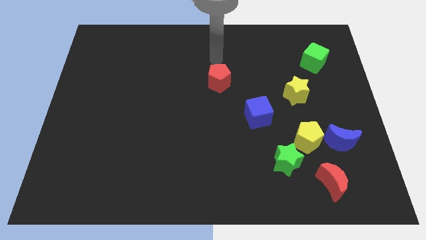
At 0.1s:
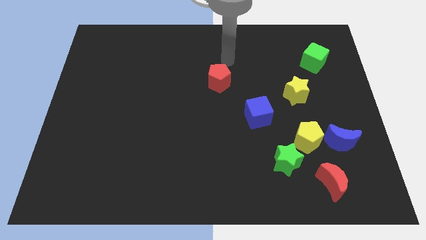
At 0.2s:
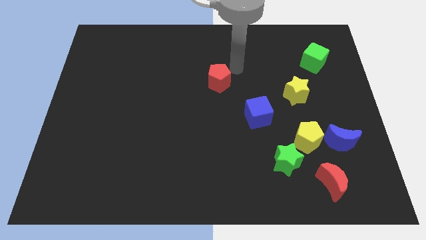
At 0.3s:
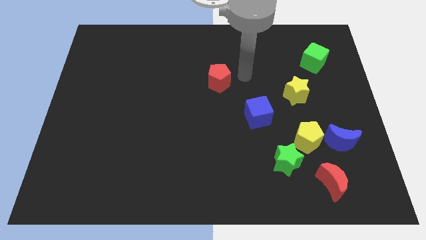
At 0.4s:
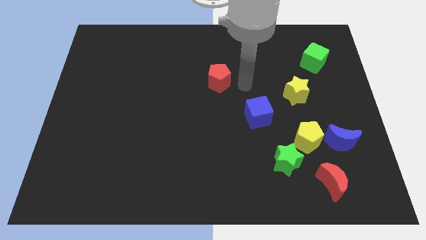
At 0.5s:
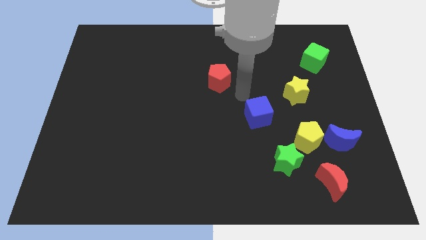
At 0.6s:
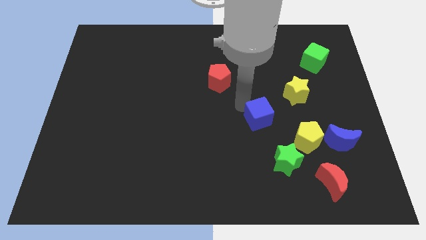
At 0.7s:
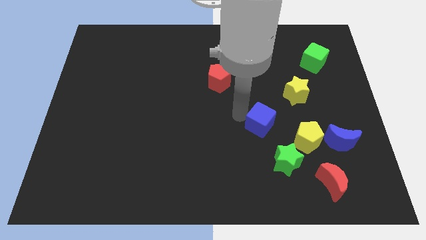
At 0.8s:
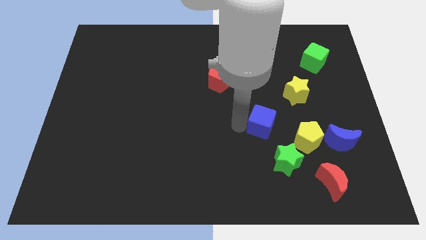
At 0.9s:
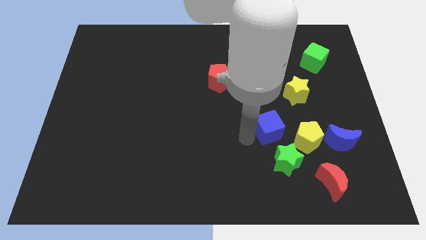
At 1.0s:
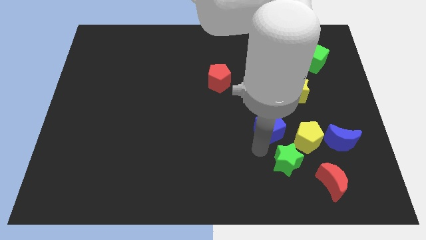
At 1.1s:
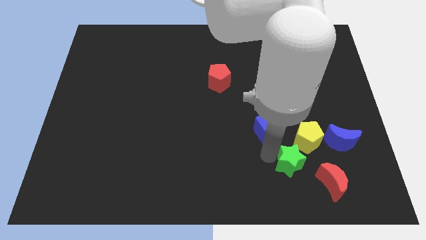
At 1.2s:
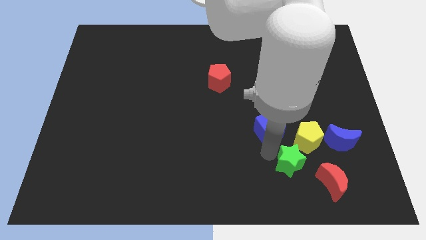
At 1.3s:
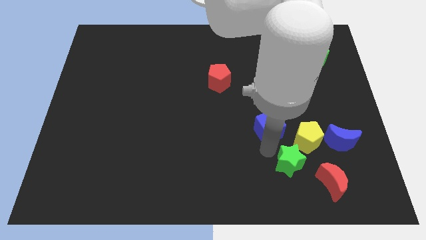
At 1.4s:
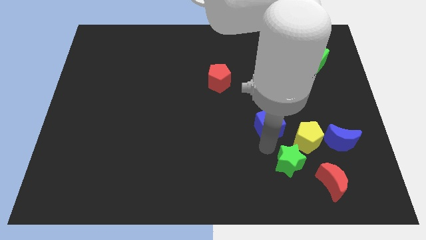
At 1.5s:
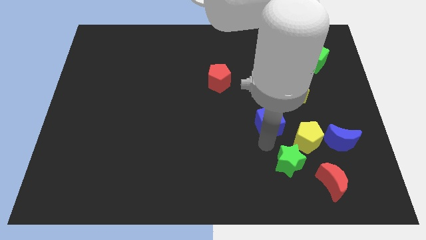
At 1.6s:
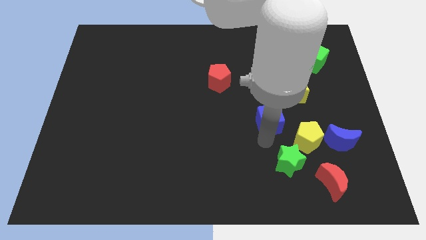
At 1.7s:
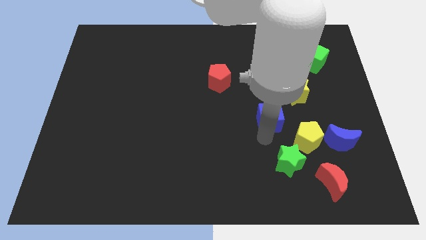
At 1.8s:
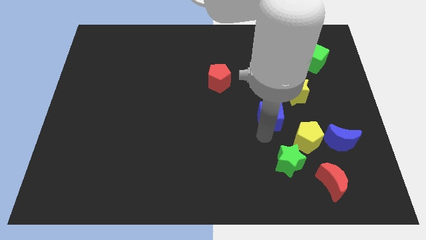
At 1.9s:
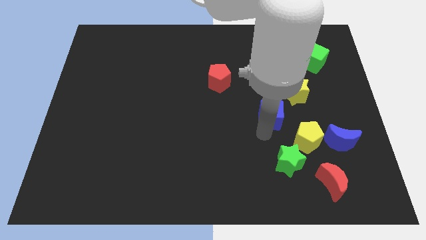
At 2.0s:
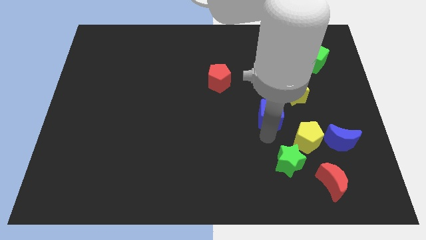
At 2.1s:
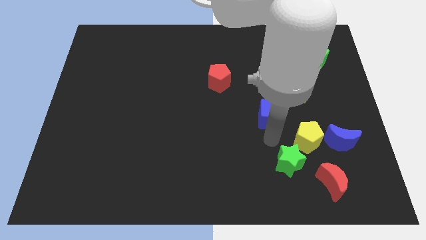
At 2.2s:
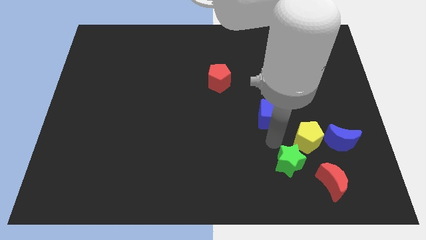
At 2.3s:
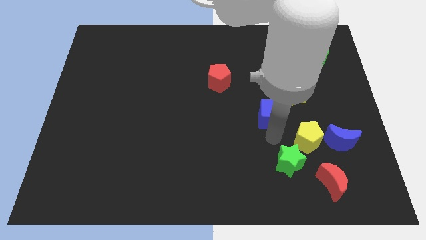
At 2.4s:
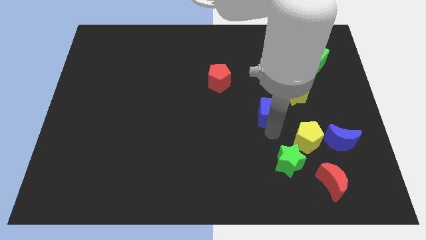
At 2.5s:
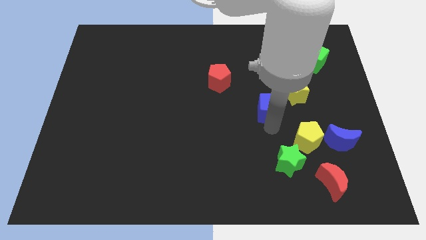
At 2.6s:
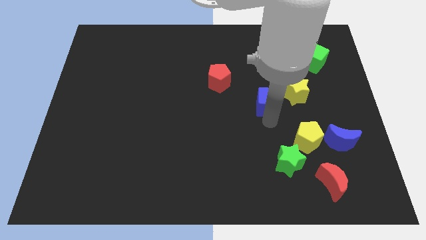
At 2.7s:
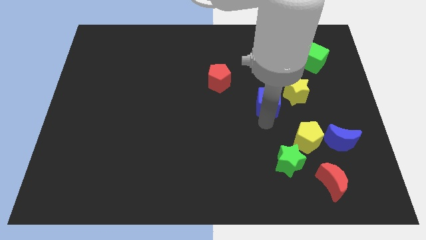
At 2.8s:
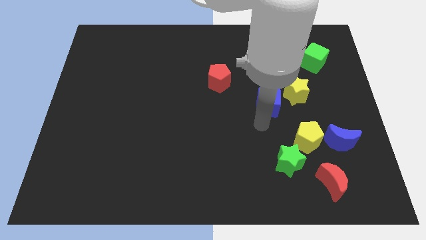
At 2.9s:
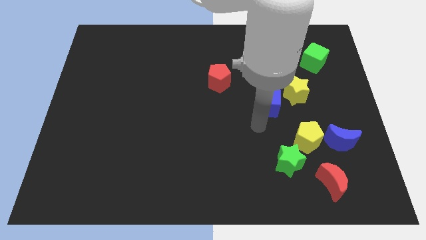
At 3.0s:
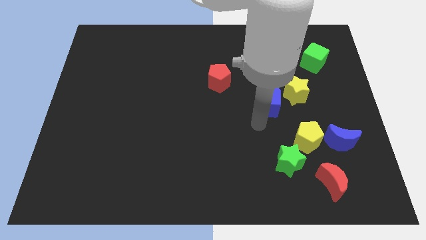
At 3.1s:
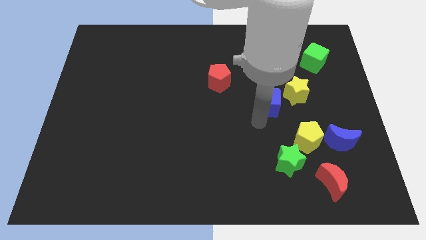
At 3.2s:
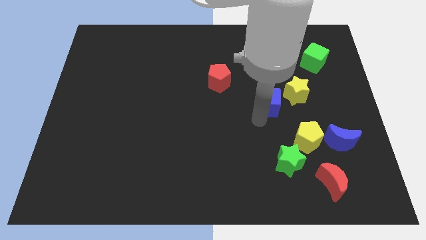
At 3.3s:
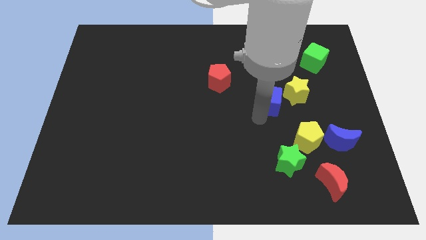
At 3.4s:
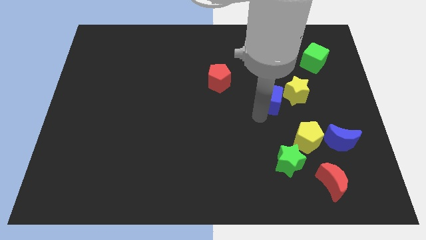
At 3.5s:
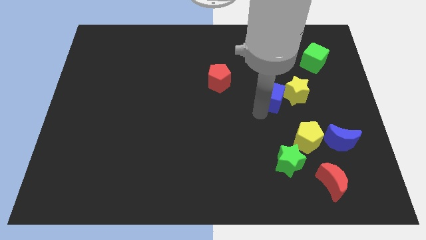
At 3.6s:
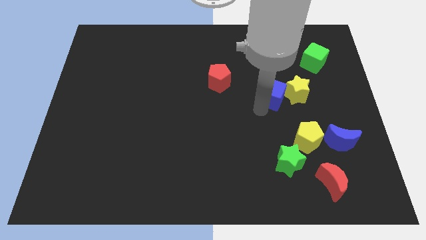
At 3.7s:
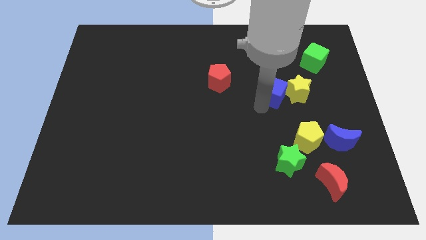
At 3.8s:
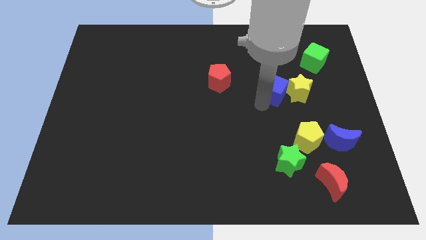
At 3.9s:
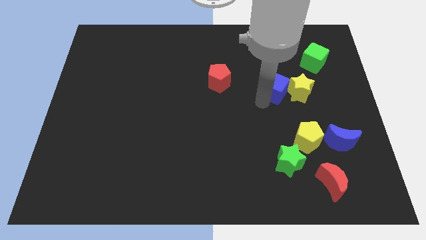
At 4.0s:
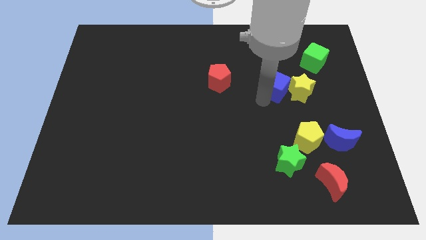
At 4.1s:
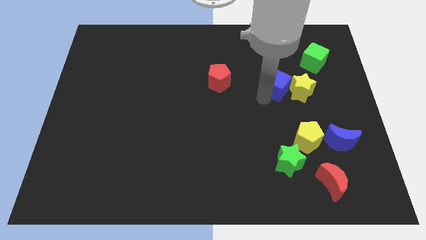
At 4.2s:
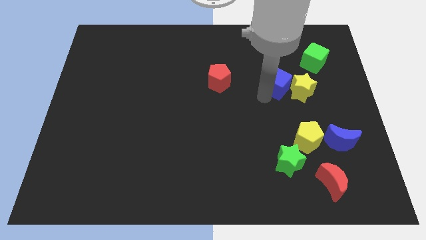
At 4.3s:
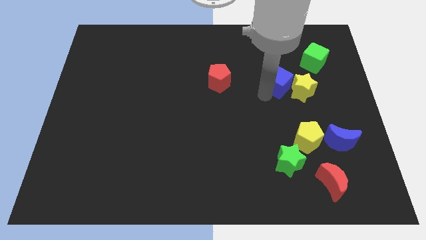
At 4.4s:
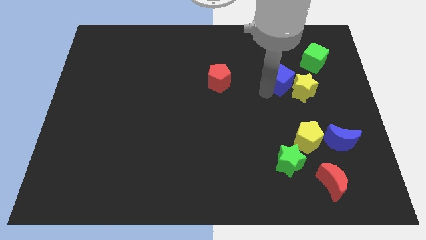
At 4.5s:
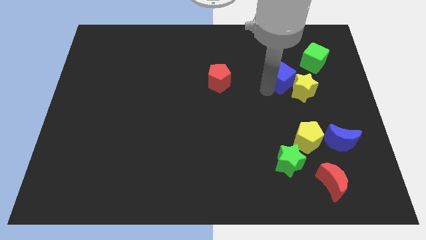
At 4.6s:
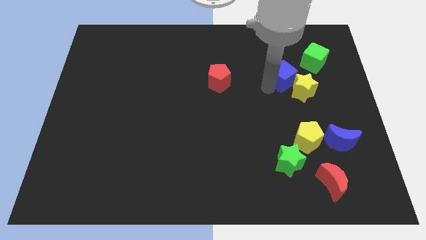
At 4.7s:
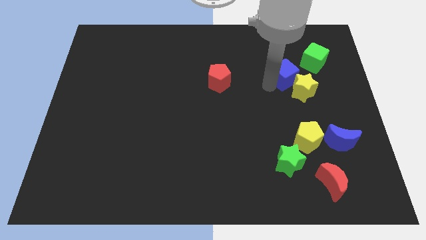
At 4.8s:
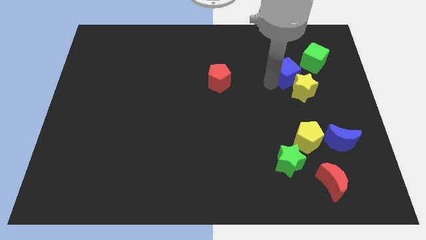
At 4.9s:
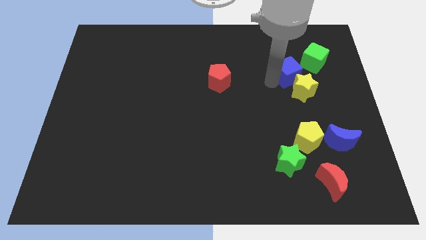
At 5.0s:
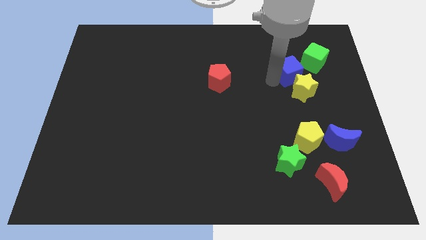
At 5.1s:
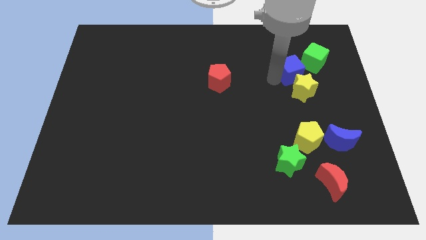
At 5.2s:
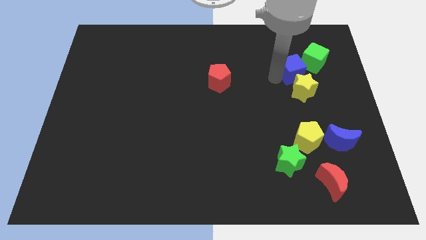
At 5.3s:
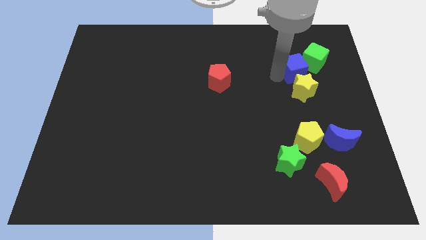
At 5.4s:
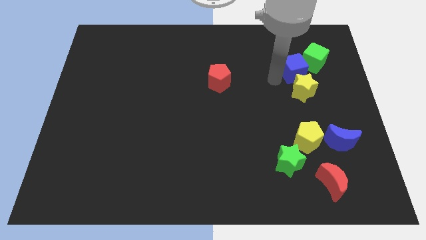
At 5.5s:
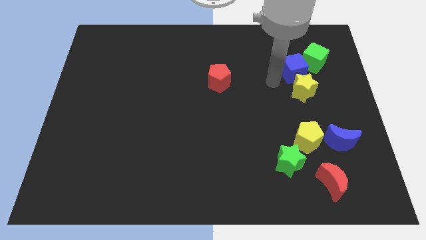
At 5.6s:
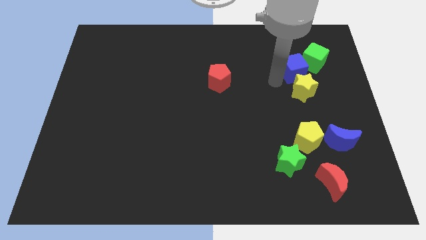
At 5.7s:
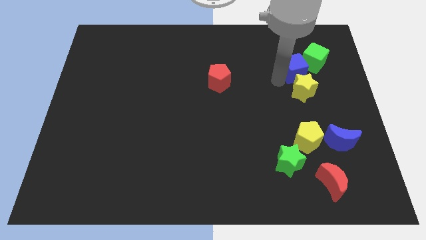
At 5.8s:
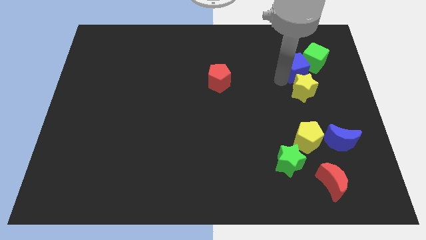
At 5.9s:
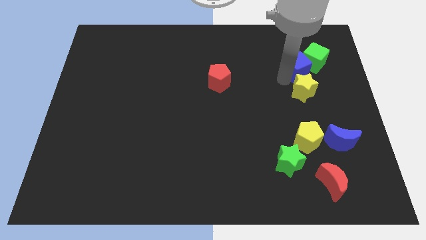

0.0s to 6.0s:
slide the blue cube to the green cube

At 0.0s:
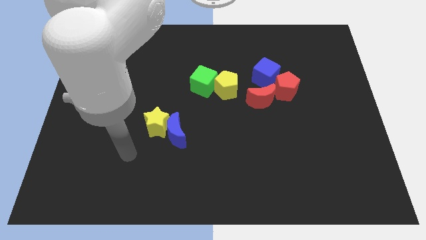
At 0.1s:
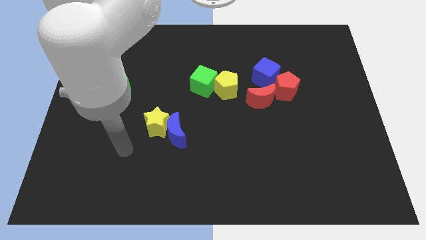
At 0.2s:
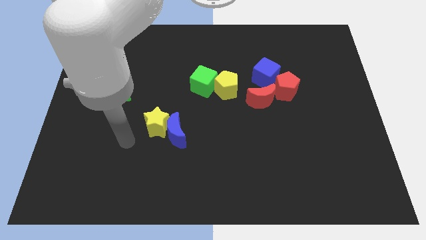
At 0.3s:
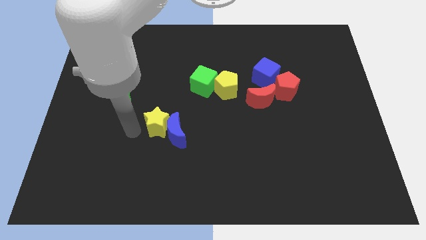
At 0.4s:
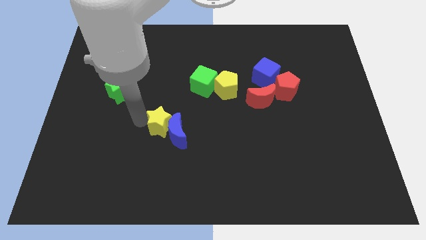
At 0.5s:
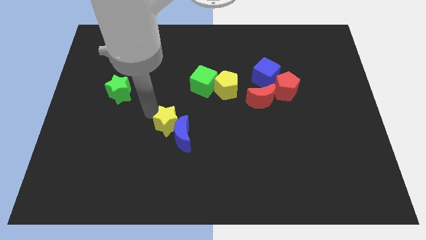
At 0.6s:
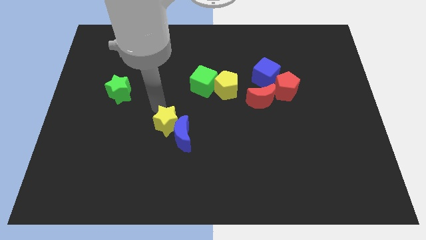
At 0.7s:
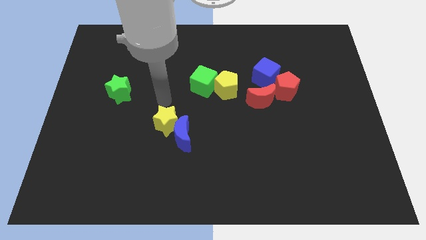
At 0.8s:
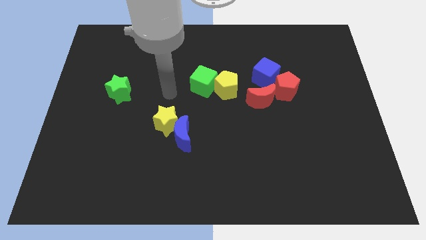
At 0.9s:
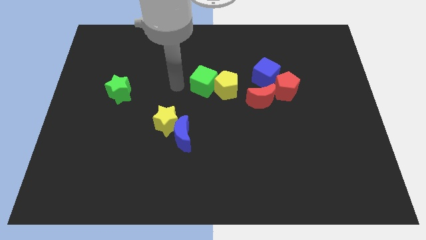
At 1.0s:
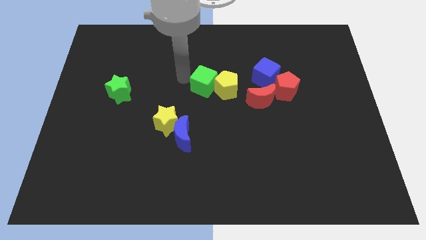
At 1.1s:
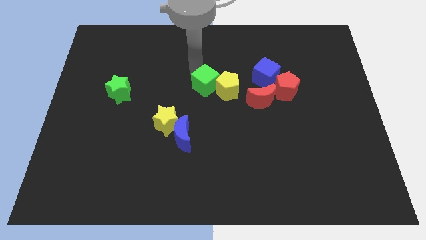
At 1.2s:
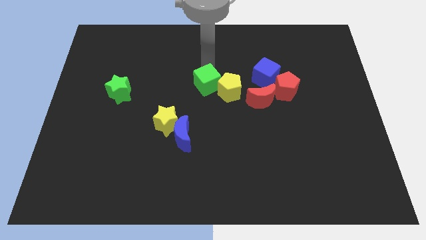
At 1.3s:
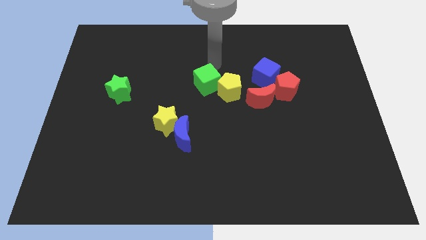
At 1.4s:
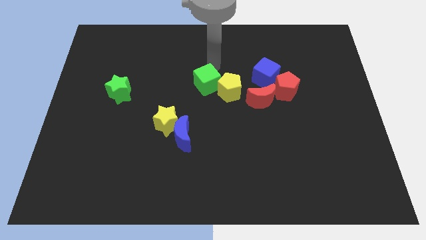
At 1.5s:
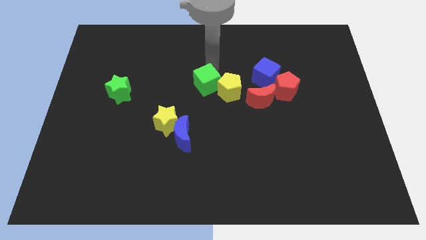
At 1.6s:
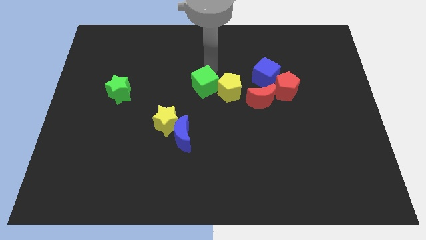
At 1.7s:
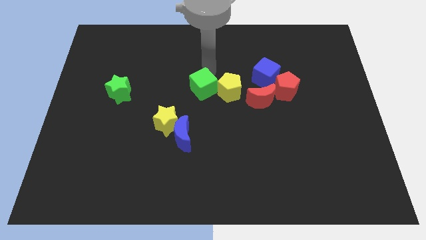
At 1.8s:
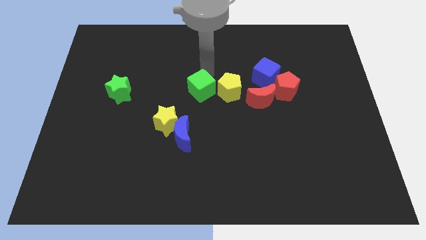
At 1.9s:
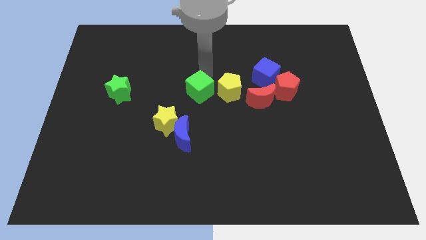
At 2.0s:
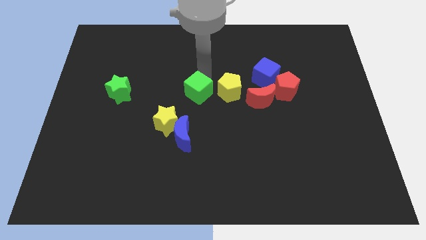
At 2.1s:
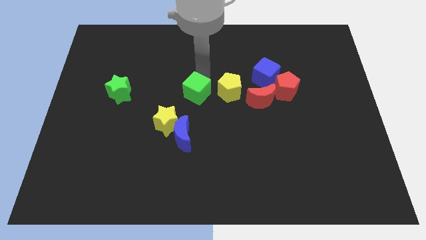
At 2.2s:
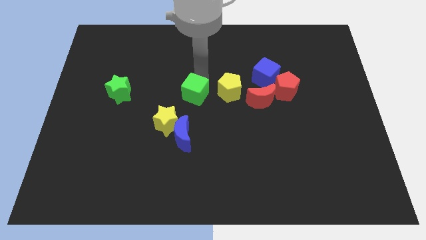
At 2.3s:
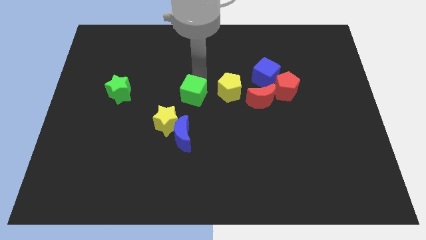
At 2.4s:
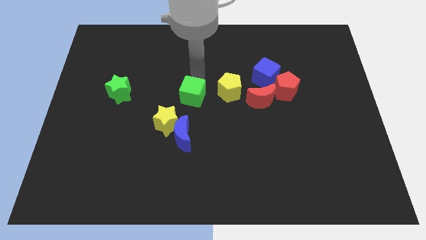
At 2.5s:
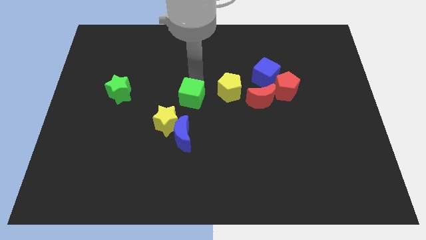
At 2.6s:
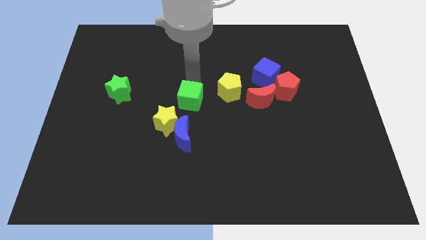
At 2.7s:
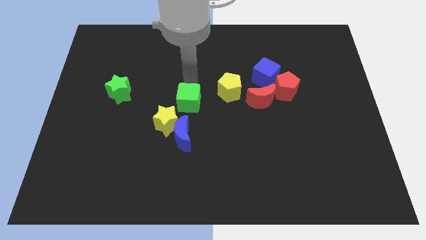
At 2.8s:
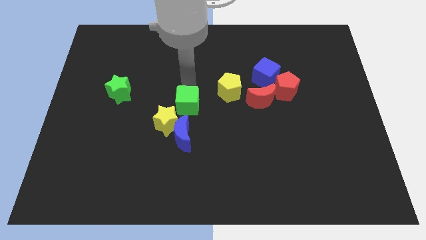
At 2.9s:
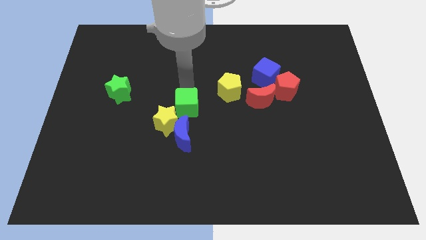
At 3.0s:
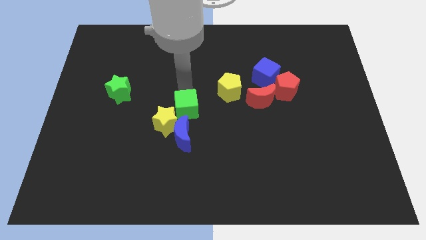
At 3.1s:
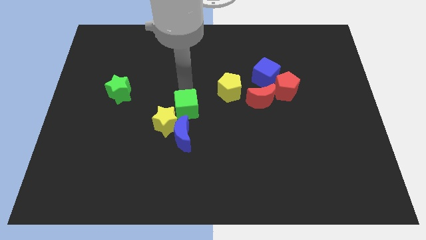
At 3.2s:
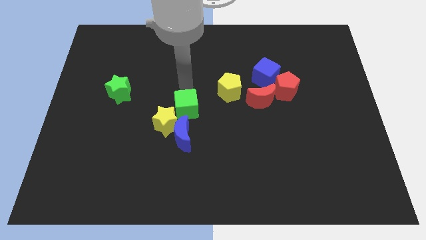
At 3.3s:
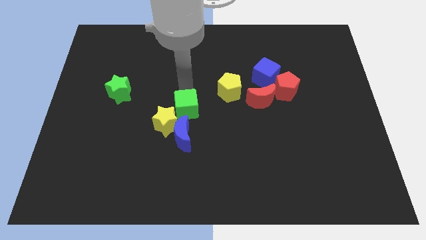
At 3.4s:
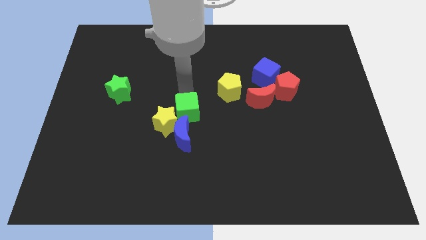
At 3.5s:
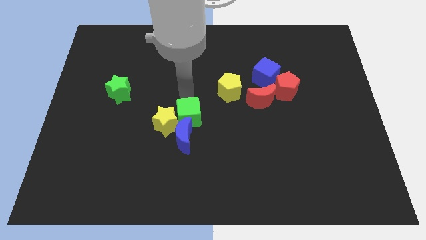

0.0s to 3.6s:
move the green cube next to the blue moon
